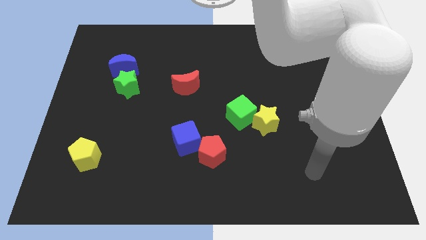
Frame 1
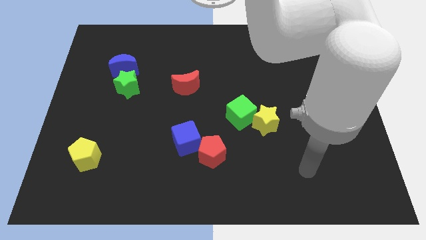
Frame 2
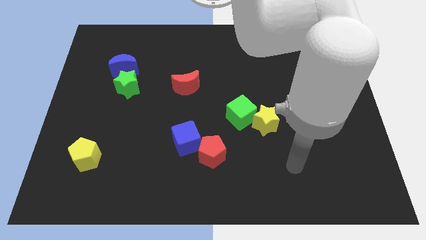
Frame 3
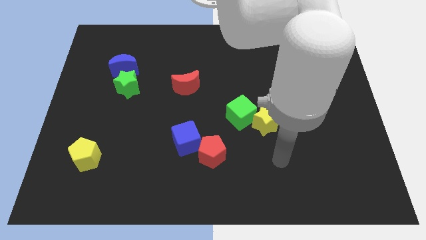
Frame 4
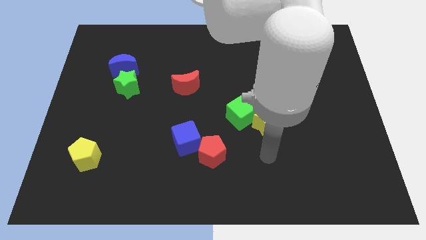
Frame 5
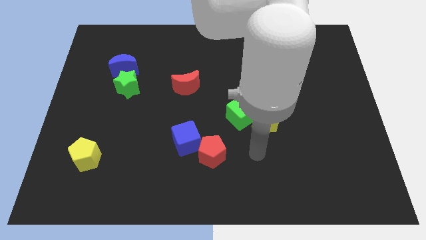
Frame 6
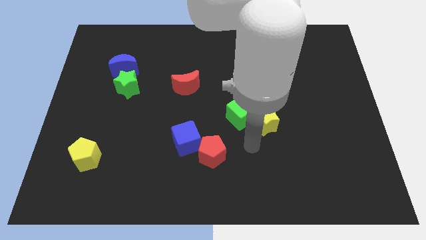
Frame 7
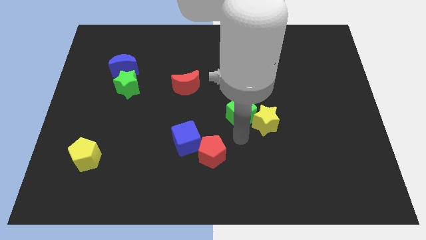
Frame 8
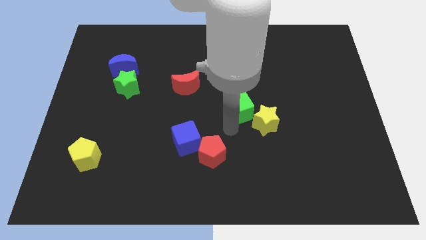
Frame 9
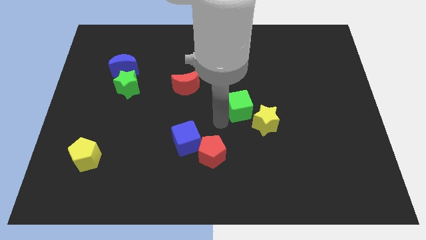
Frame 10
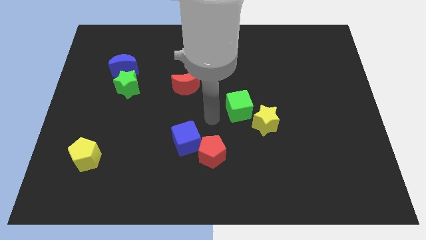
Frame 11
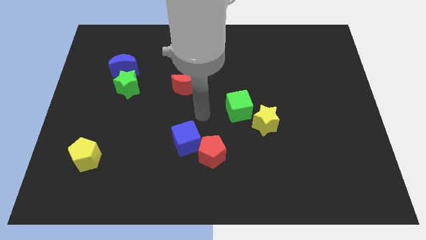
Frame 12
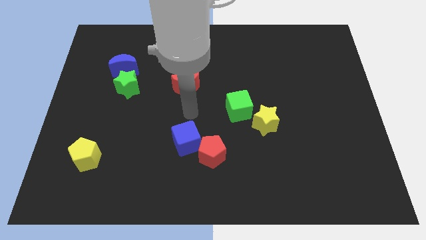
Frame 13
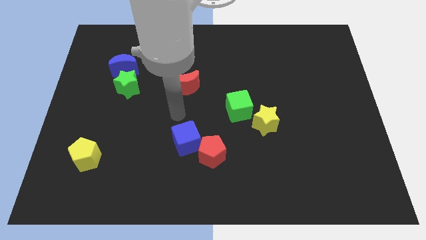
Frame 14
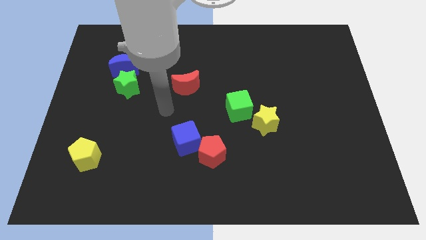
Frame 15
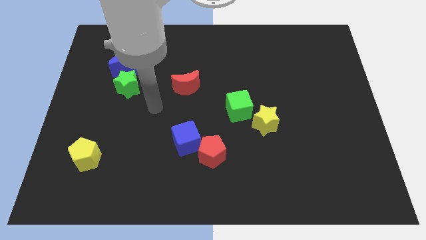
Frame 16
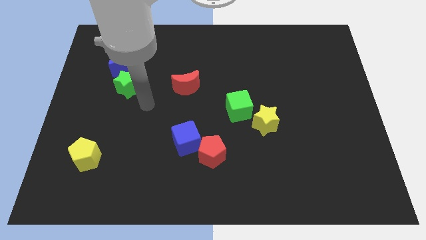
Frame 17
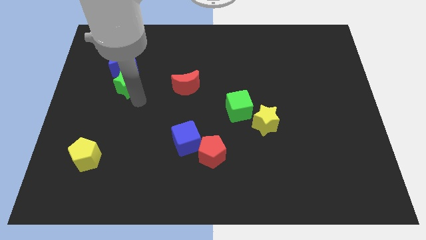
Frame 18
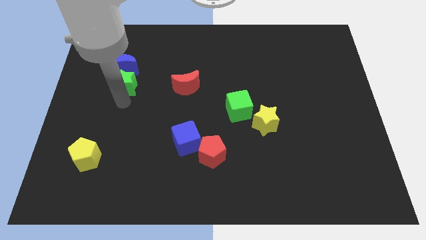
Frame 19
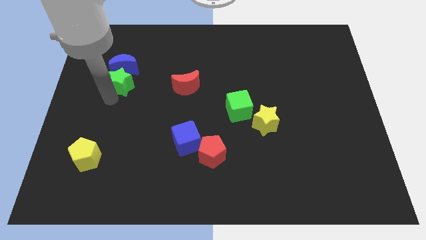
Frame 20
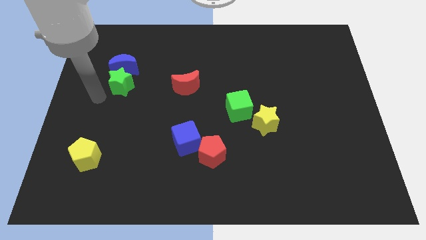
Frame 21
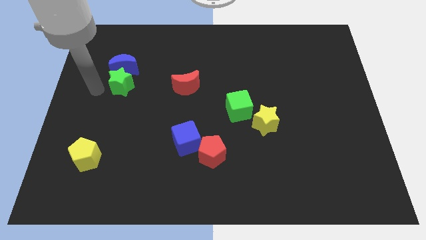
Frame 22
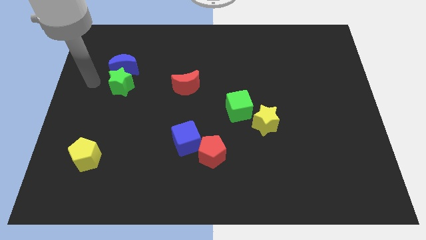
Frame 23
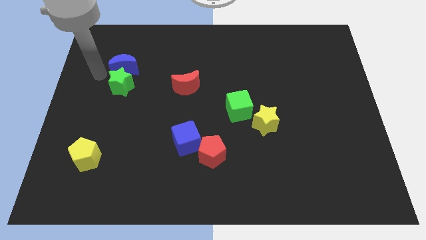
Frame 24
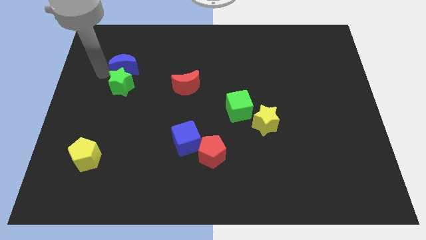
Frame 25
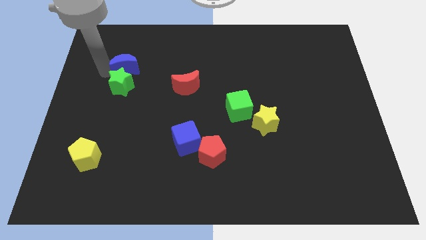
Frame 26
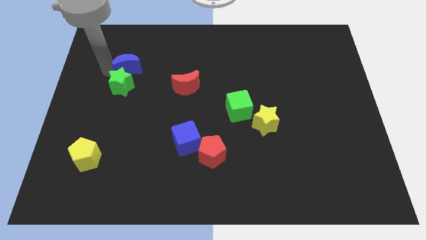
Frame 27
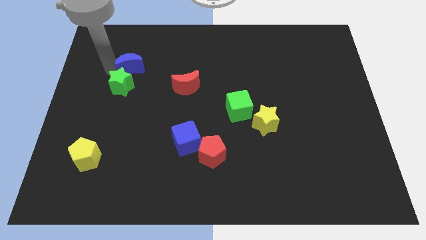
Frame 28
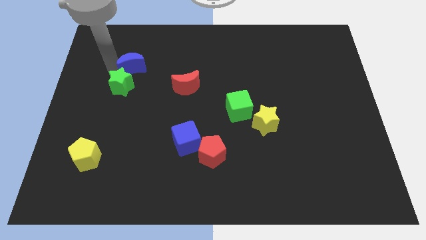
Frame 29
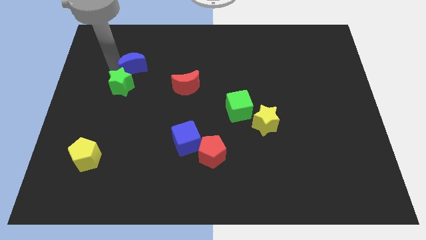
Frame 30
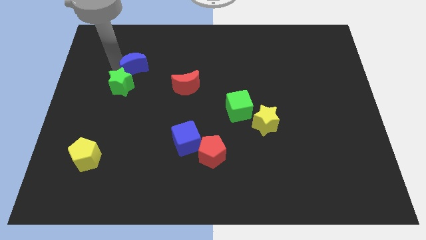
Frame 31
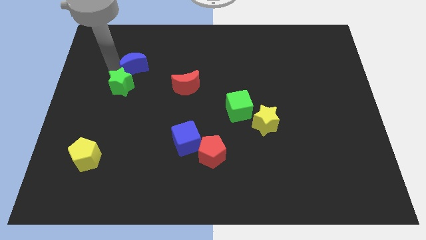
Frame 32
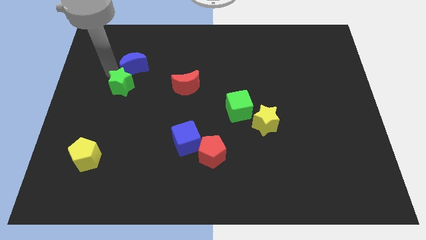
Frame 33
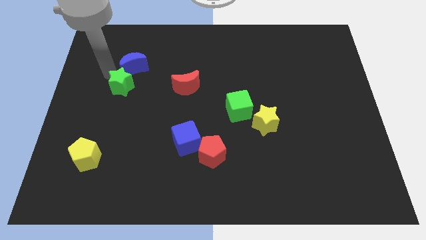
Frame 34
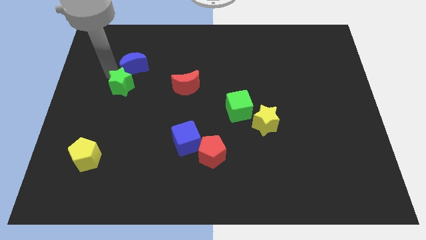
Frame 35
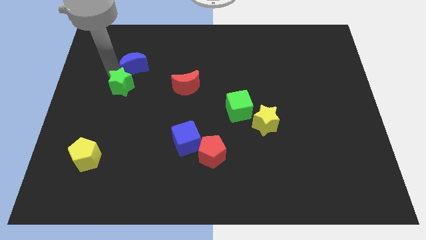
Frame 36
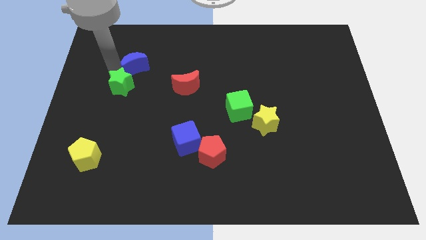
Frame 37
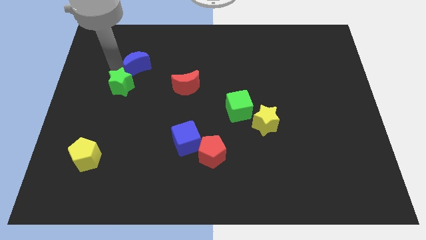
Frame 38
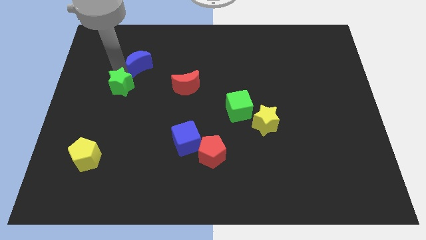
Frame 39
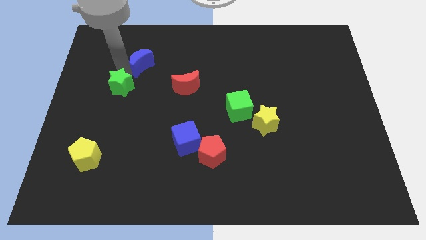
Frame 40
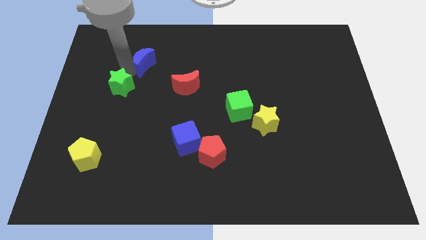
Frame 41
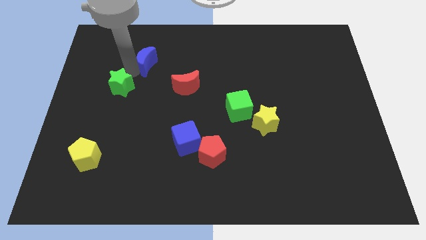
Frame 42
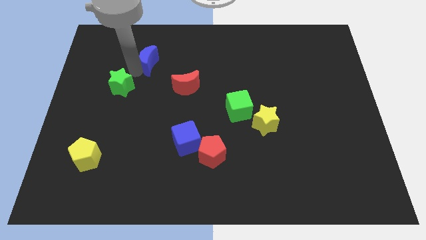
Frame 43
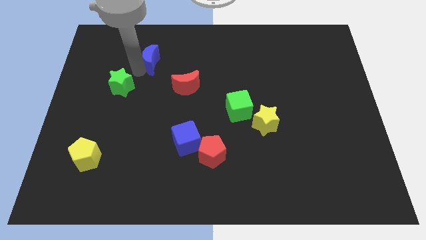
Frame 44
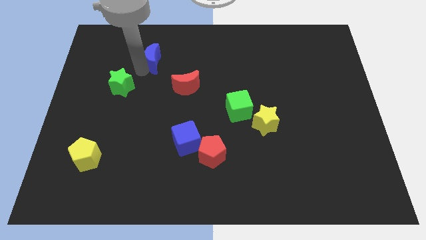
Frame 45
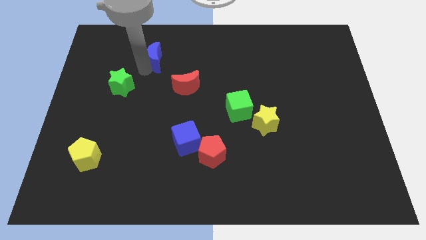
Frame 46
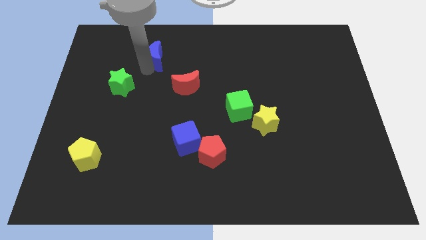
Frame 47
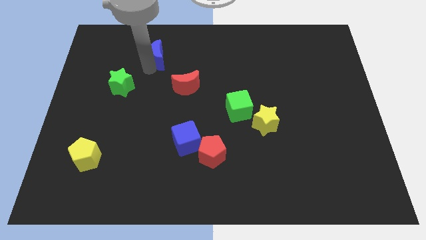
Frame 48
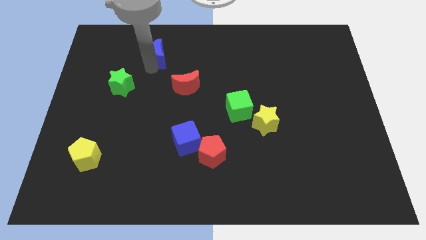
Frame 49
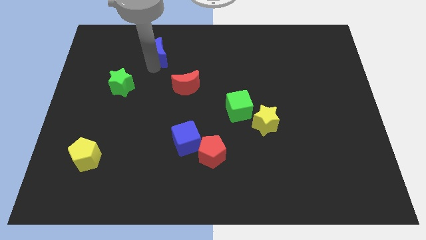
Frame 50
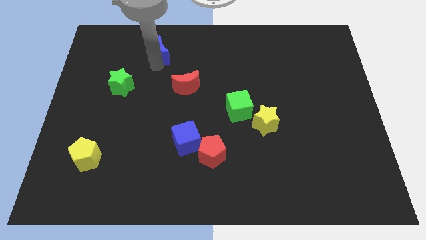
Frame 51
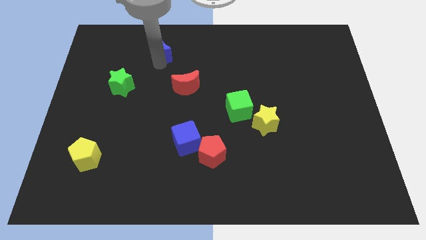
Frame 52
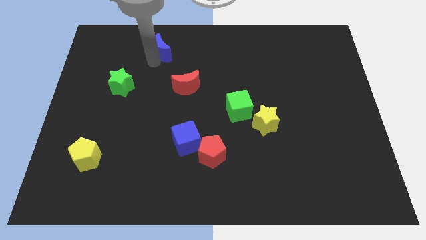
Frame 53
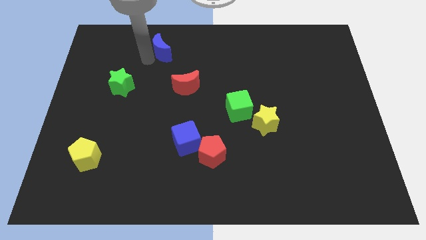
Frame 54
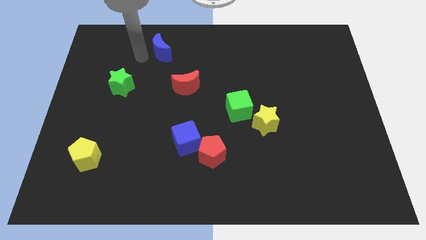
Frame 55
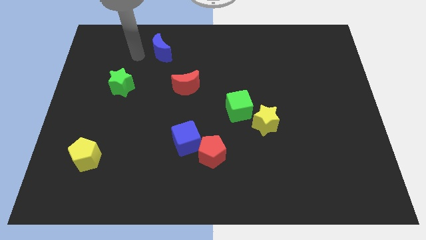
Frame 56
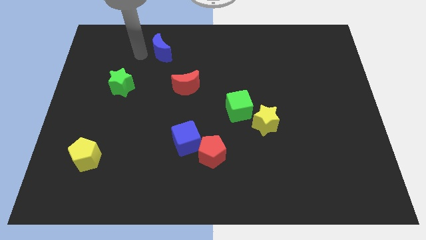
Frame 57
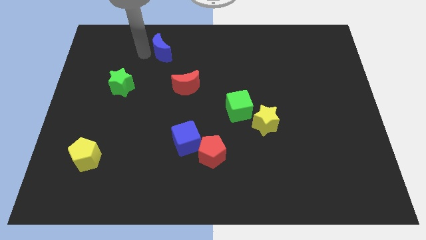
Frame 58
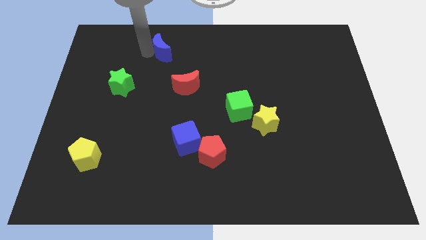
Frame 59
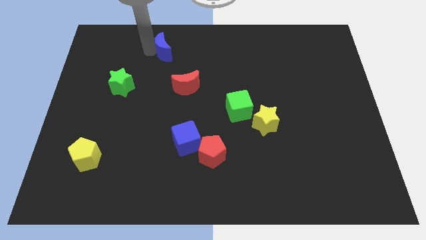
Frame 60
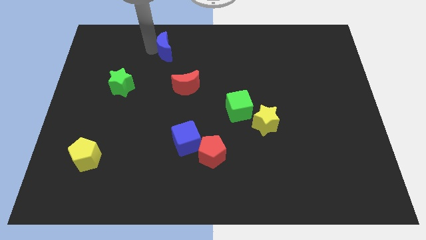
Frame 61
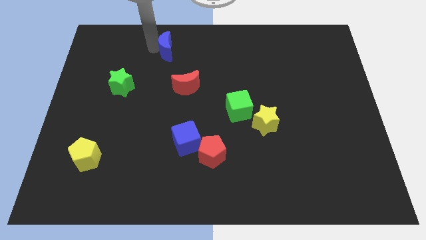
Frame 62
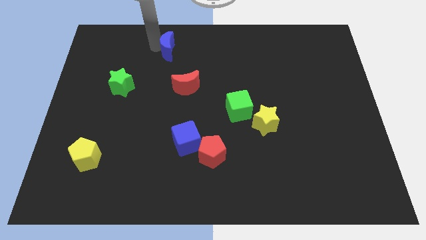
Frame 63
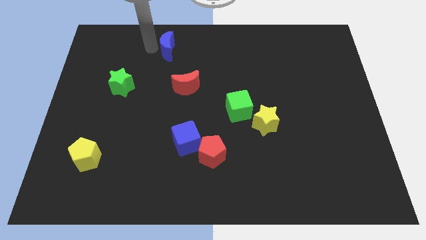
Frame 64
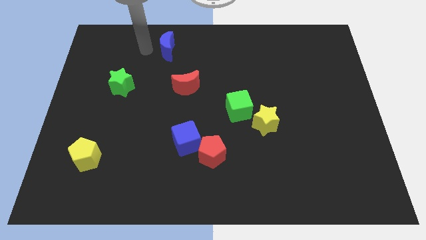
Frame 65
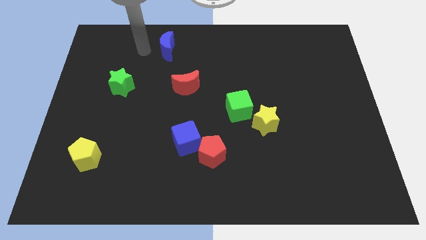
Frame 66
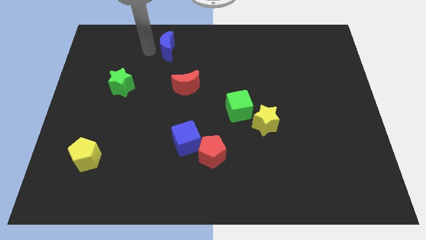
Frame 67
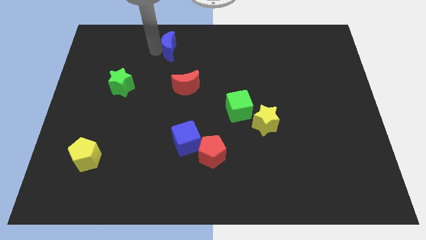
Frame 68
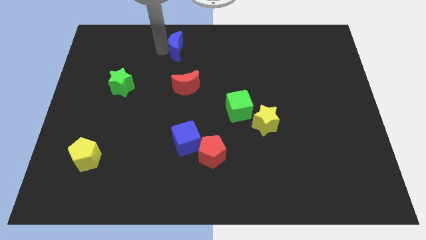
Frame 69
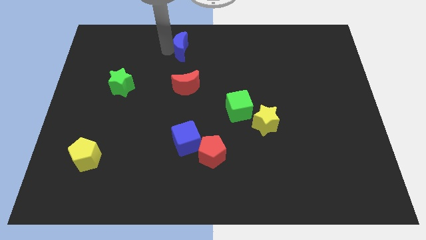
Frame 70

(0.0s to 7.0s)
move the blue moon to the top
